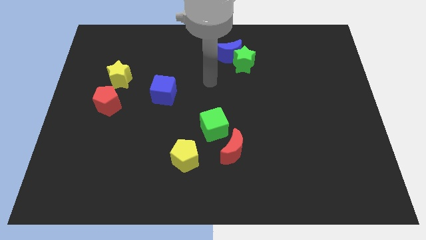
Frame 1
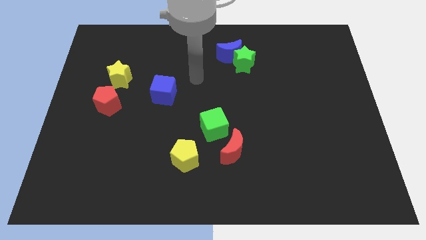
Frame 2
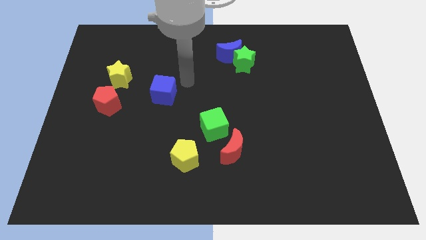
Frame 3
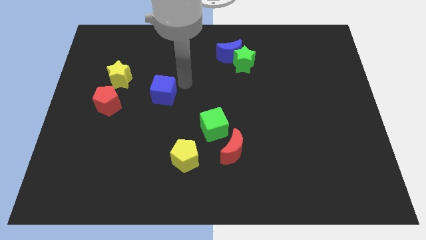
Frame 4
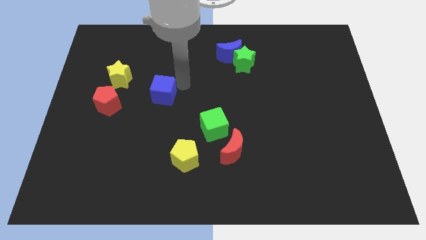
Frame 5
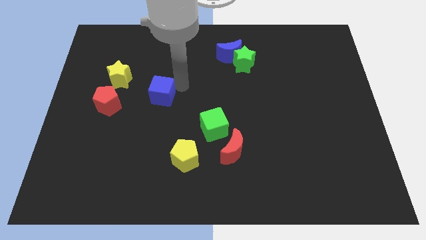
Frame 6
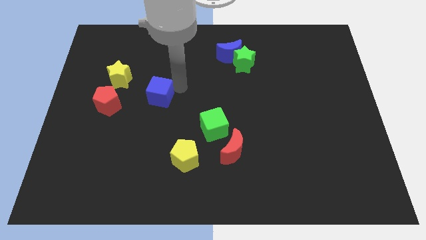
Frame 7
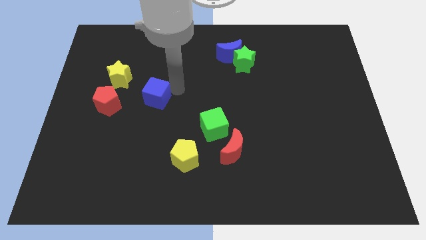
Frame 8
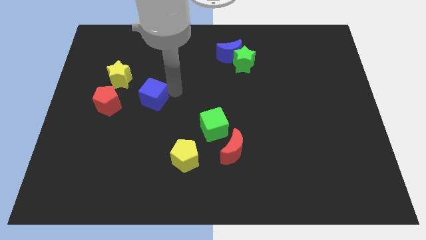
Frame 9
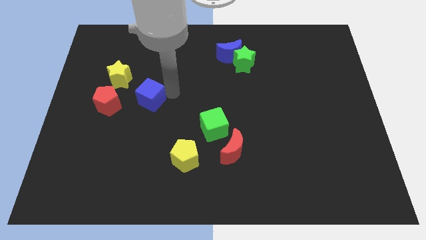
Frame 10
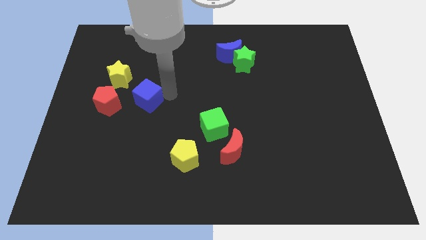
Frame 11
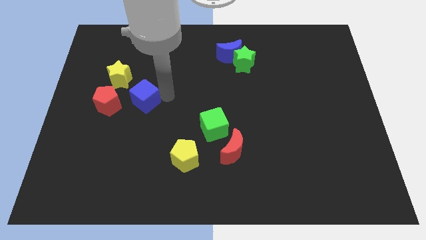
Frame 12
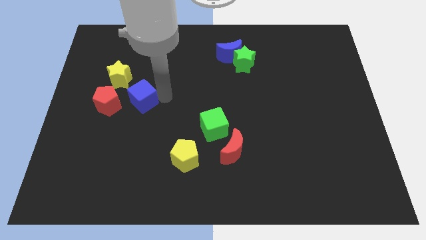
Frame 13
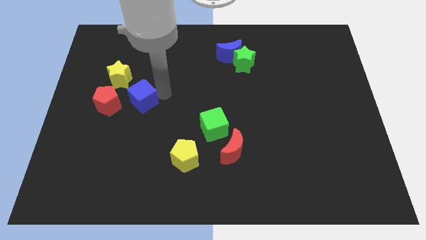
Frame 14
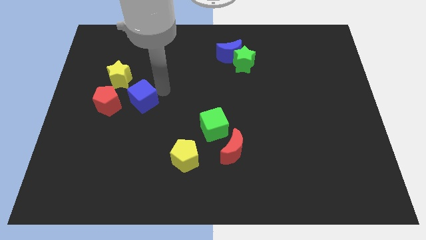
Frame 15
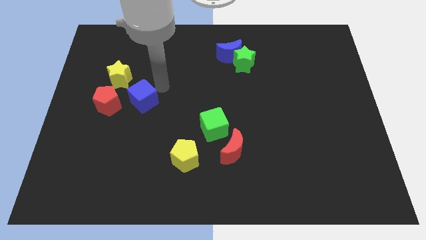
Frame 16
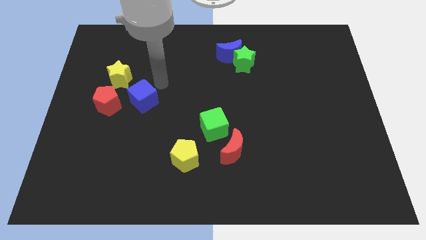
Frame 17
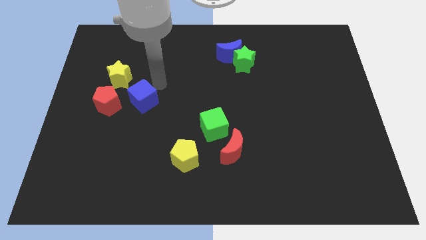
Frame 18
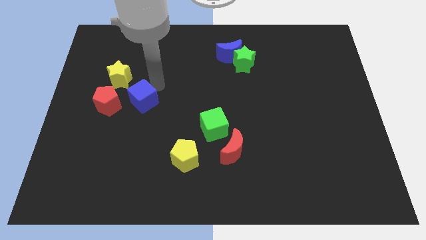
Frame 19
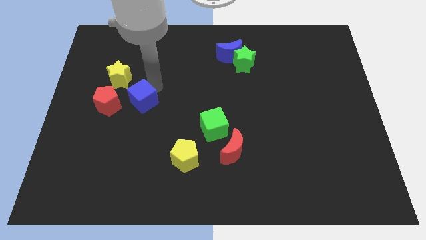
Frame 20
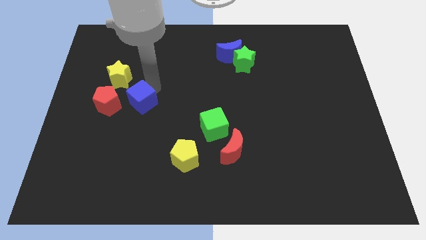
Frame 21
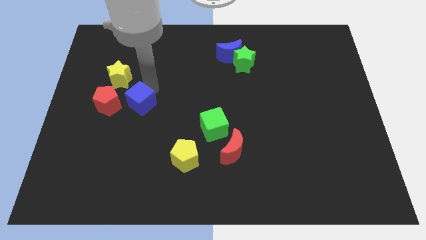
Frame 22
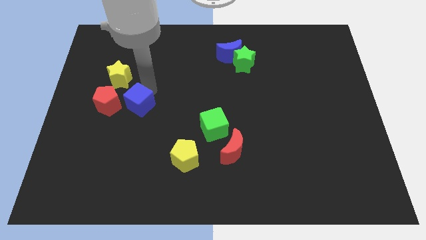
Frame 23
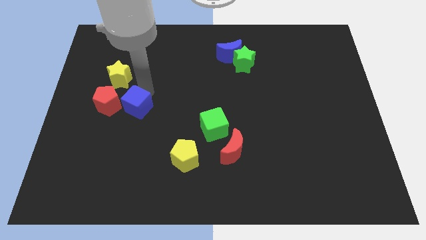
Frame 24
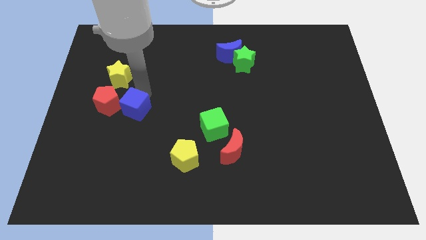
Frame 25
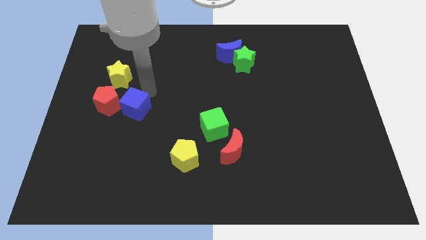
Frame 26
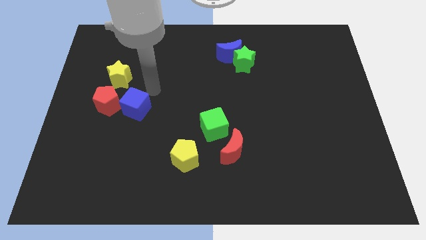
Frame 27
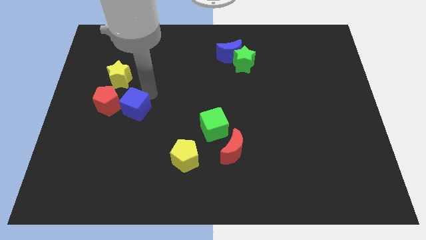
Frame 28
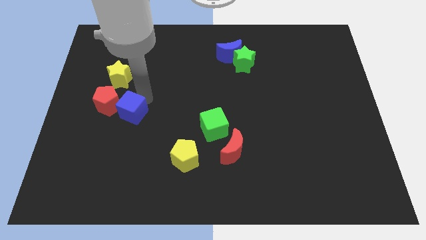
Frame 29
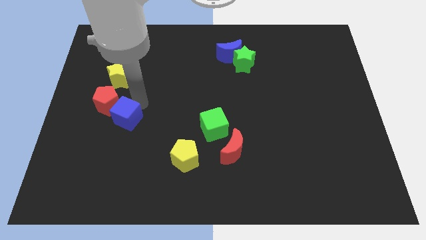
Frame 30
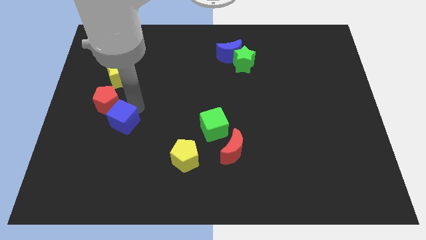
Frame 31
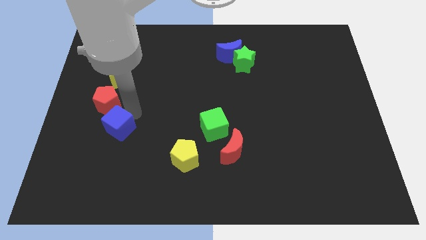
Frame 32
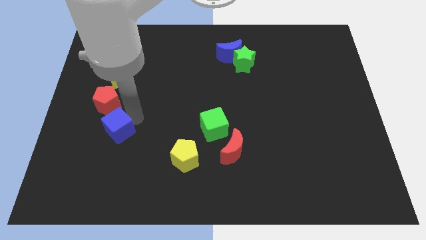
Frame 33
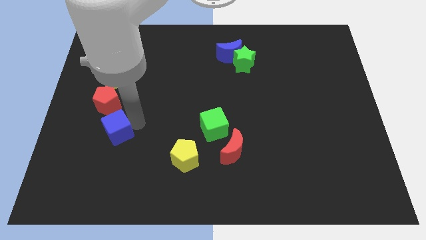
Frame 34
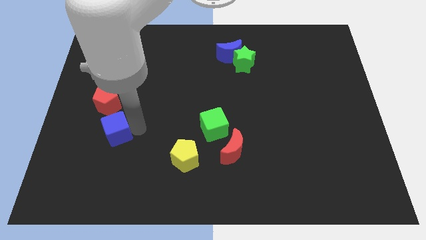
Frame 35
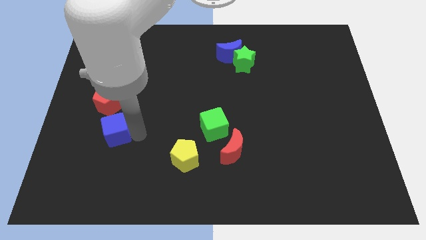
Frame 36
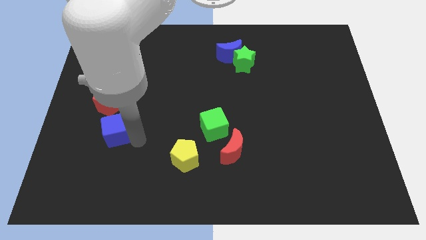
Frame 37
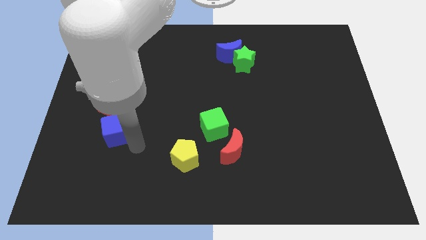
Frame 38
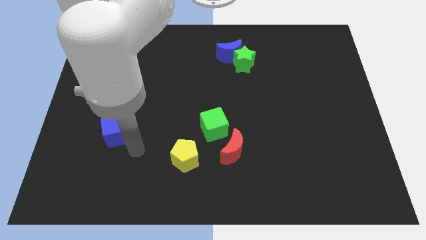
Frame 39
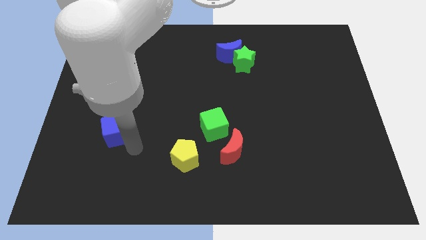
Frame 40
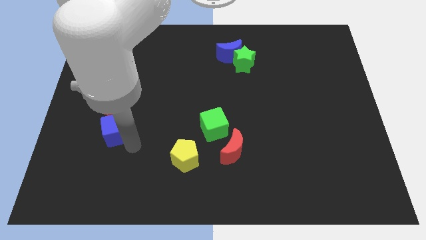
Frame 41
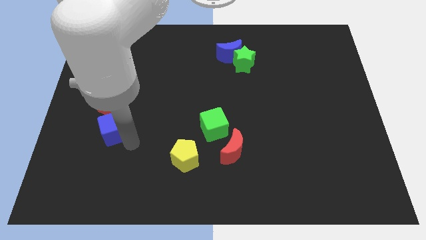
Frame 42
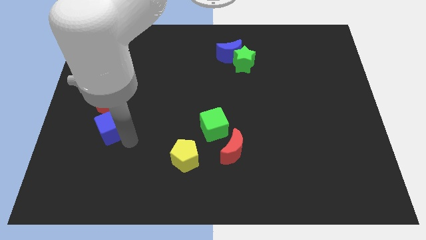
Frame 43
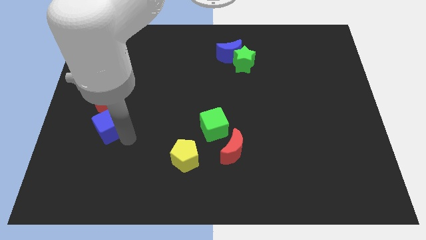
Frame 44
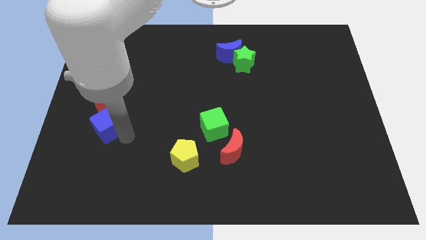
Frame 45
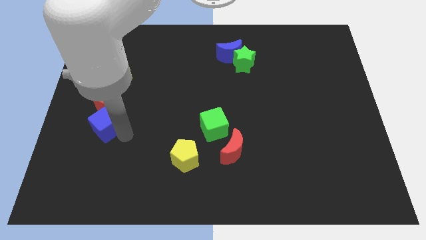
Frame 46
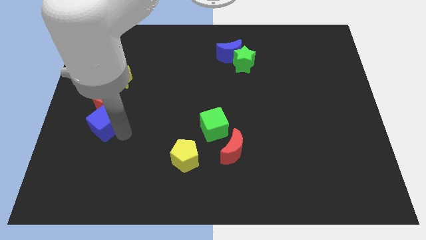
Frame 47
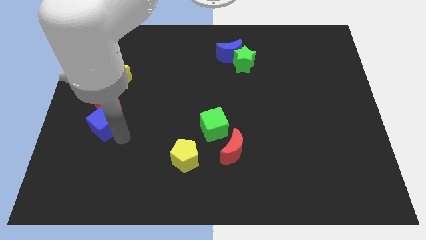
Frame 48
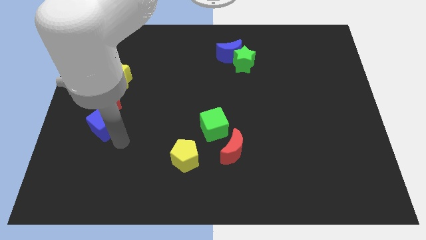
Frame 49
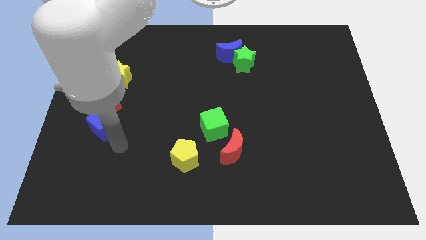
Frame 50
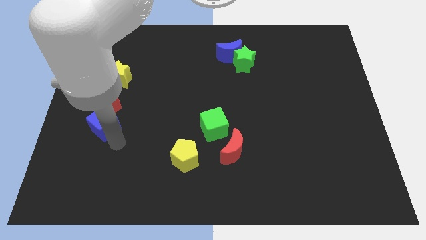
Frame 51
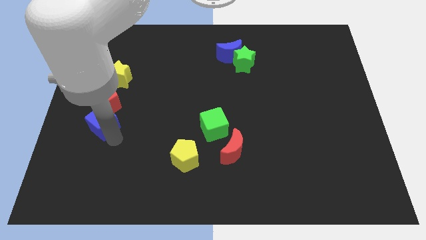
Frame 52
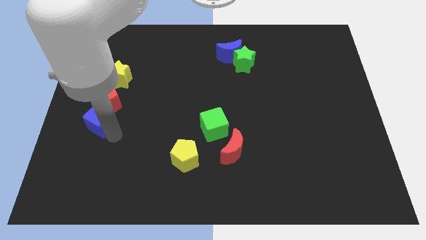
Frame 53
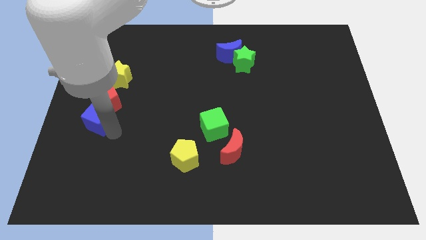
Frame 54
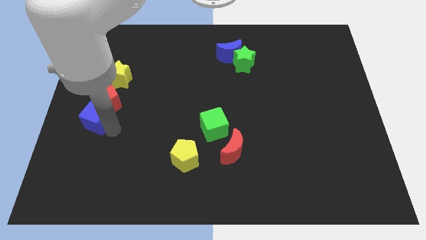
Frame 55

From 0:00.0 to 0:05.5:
push the blue cube to the left side of the board
